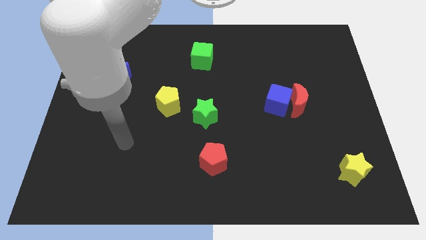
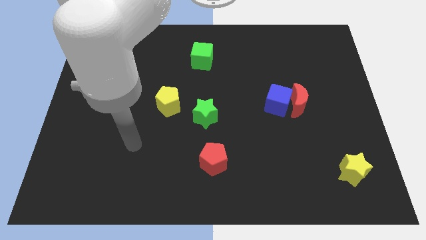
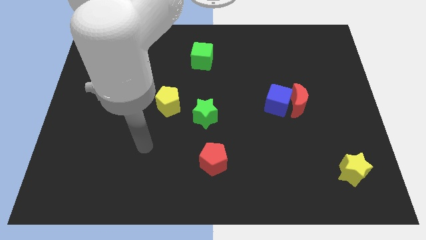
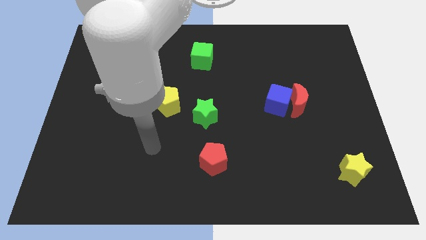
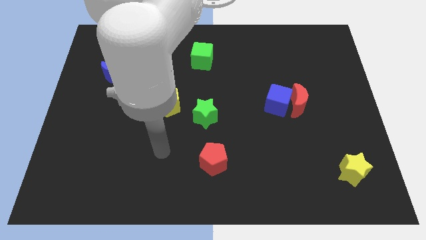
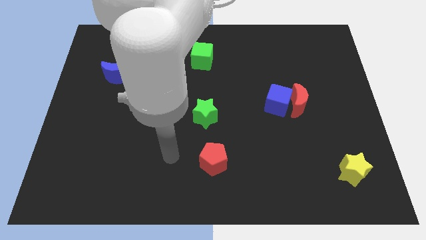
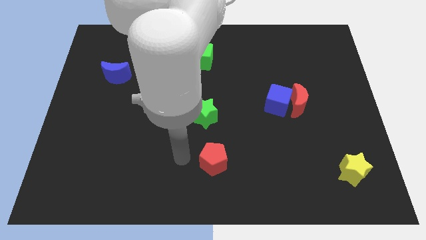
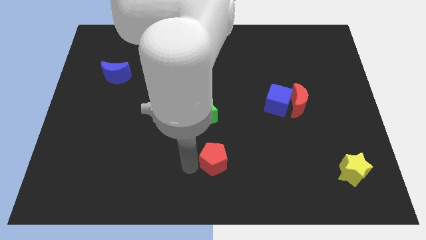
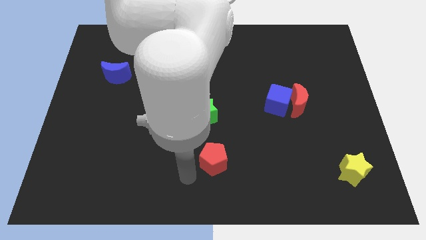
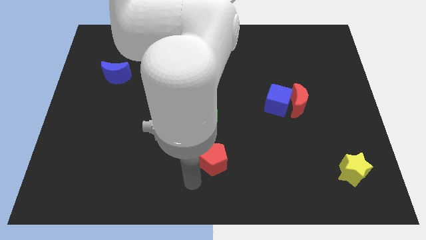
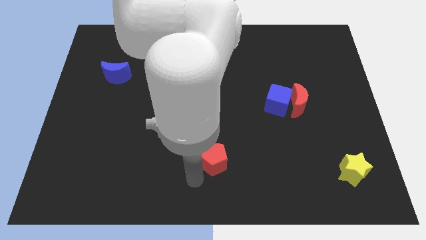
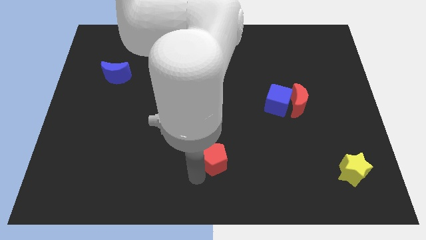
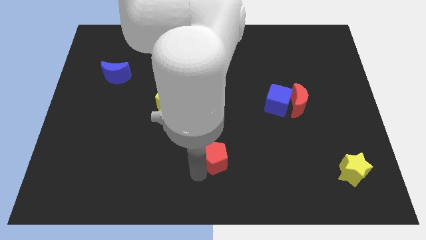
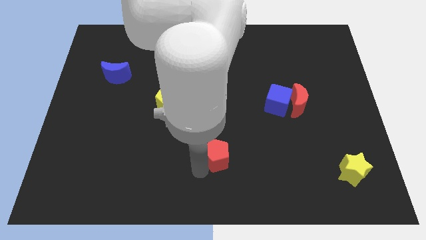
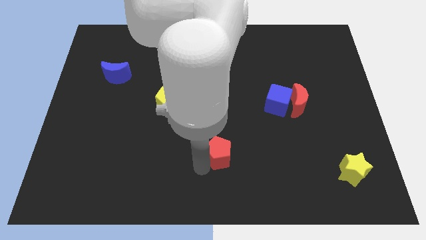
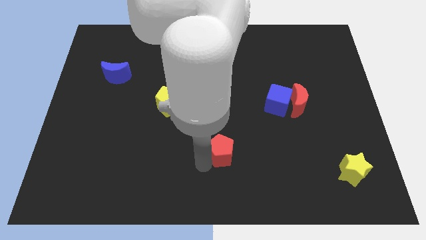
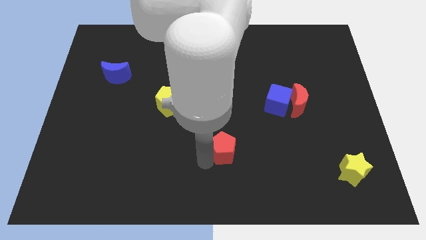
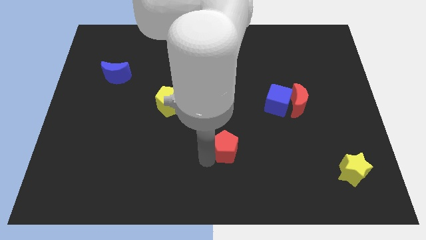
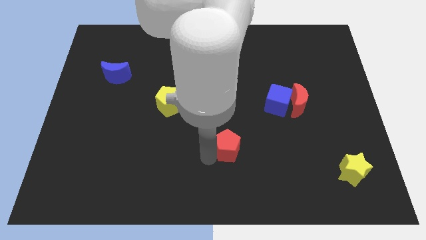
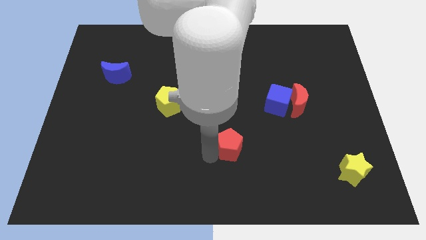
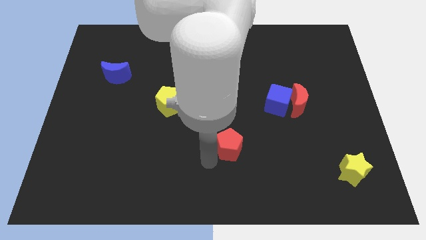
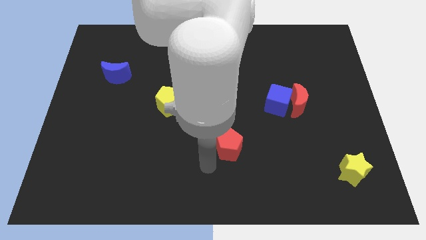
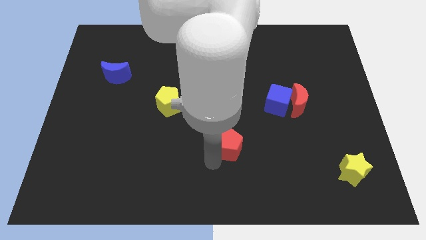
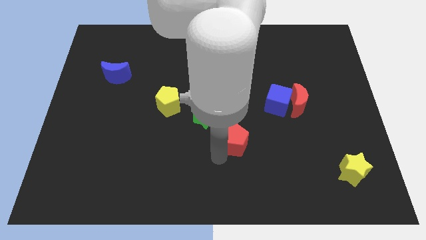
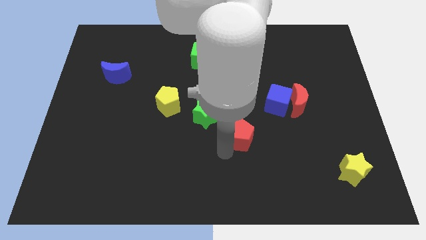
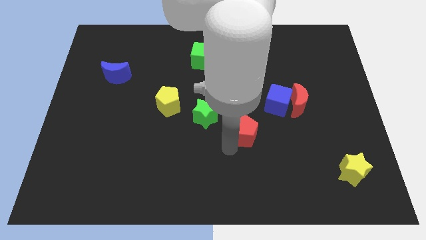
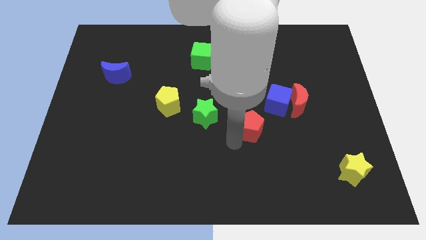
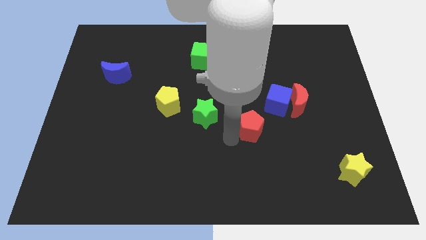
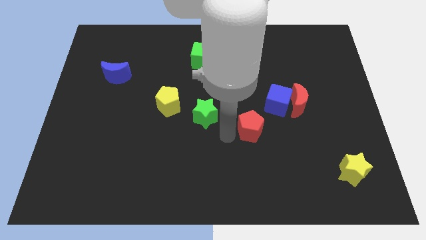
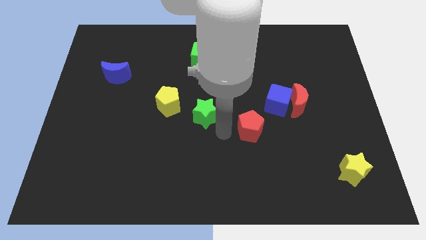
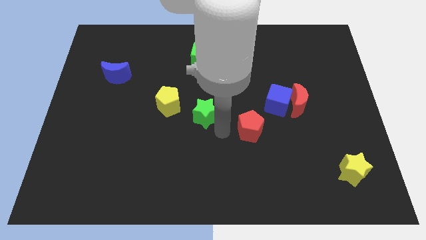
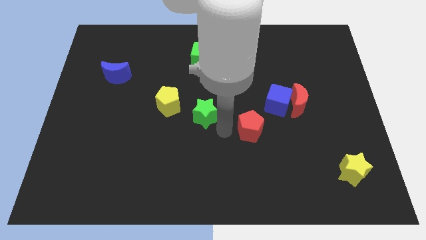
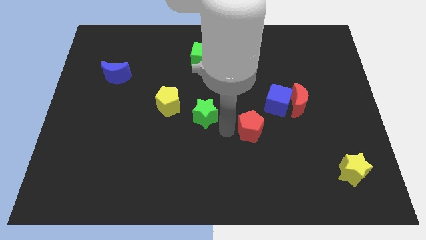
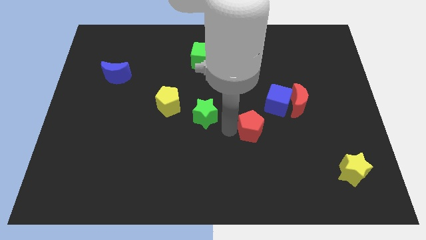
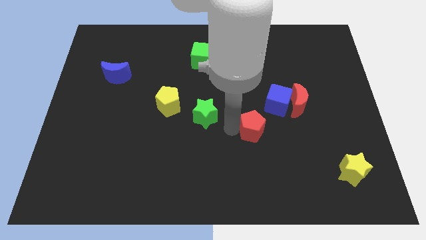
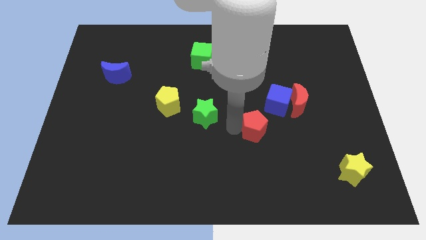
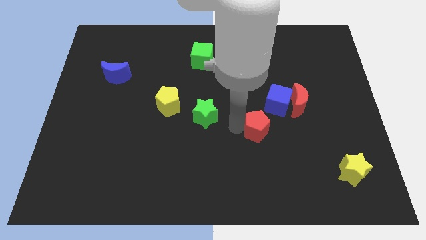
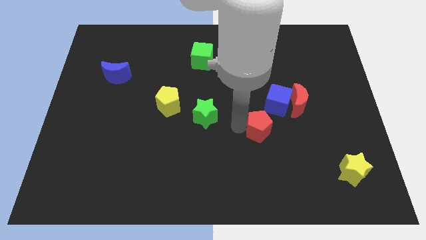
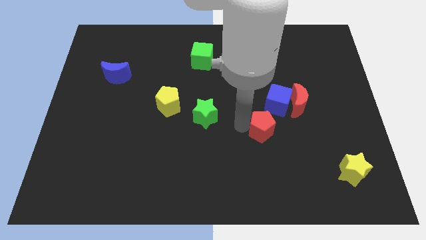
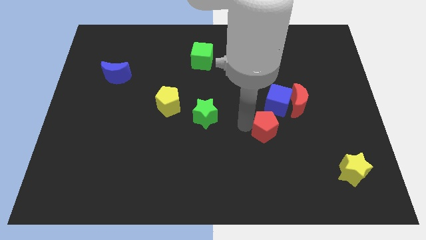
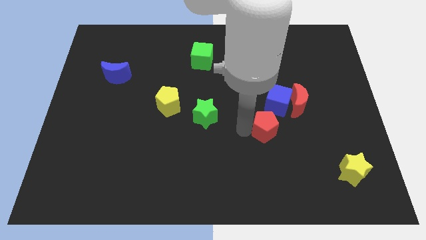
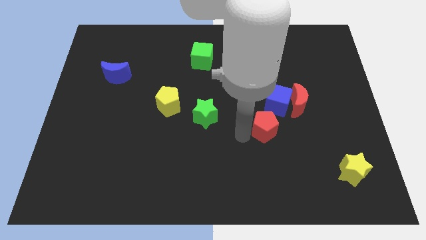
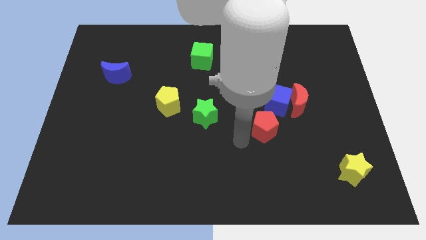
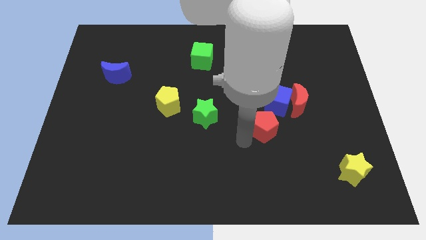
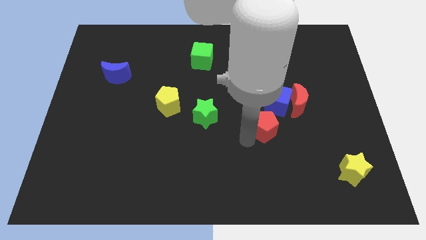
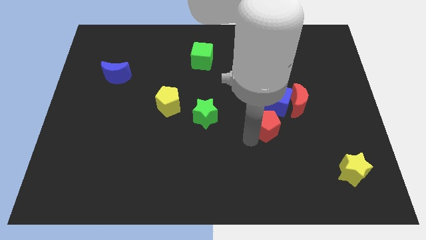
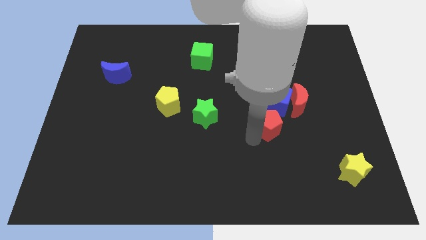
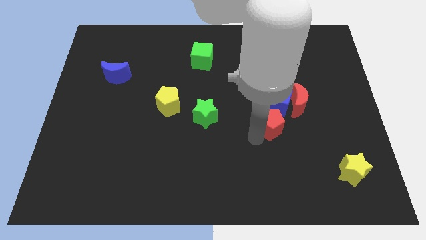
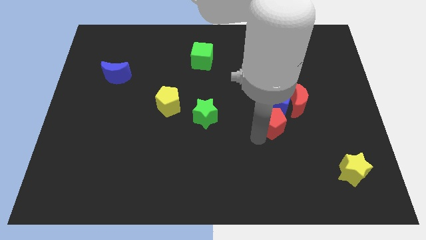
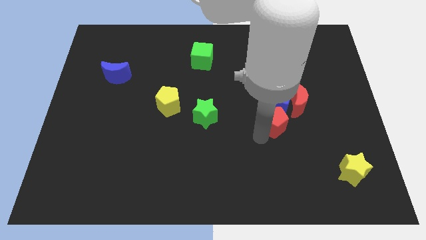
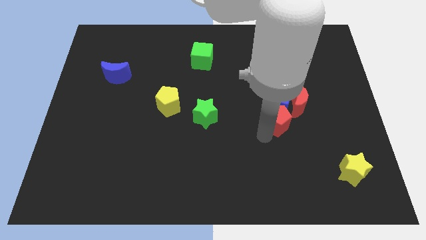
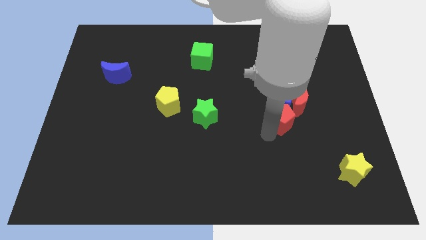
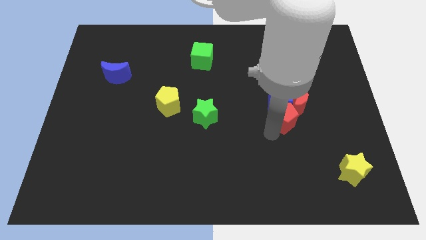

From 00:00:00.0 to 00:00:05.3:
put the red pentagon close to the red moon

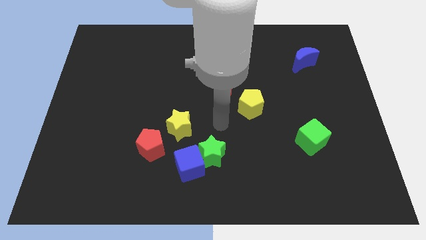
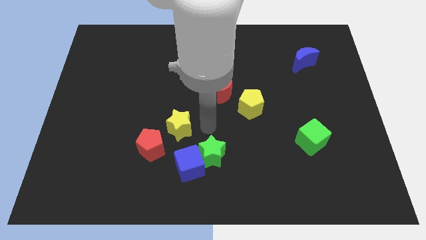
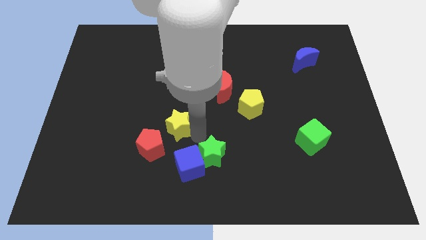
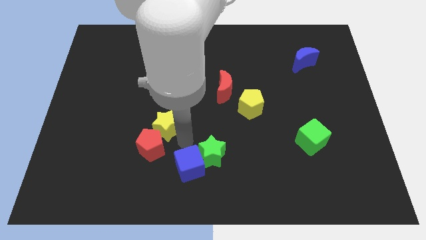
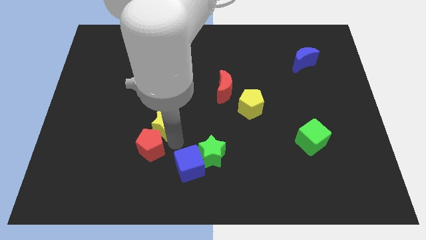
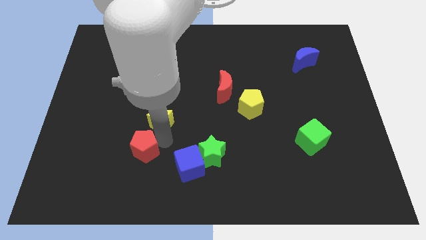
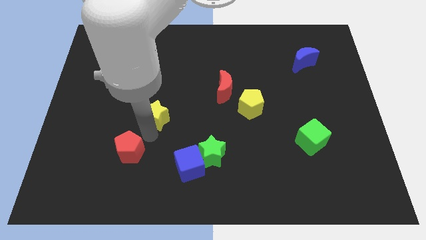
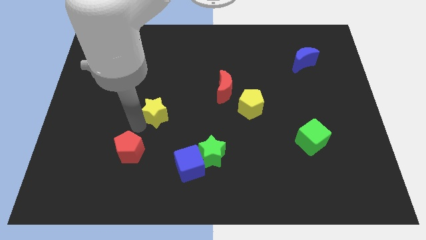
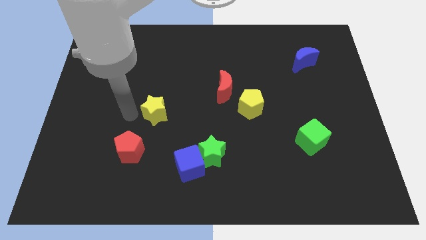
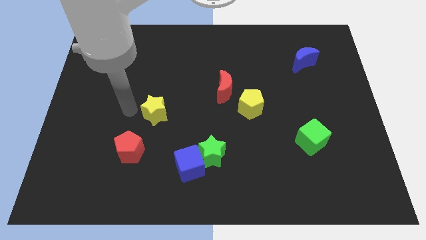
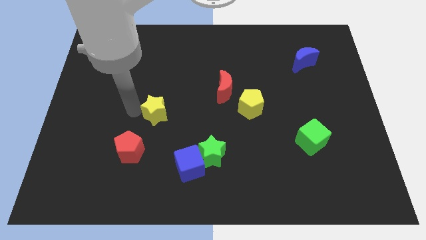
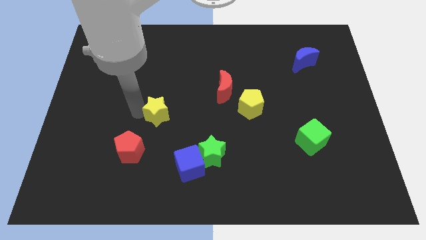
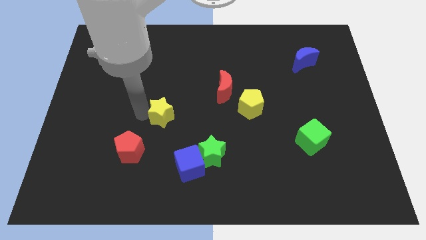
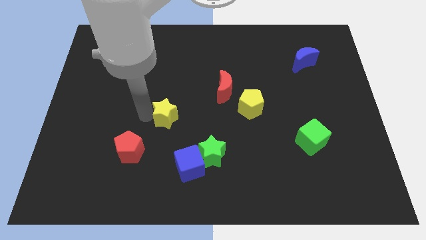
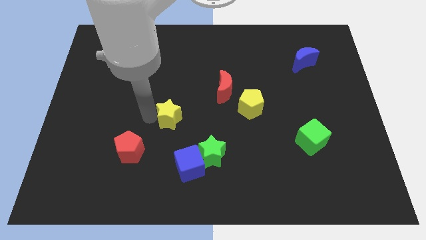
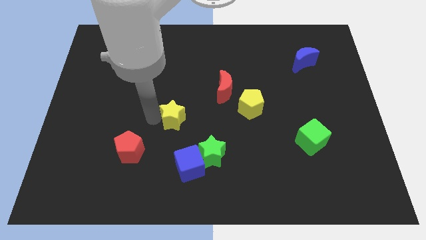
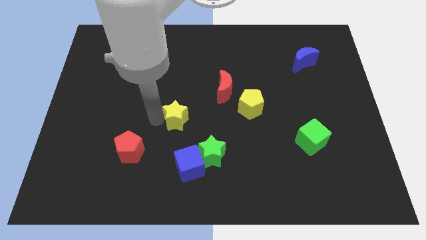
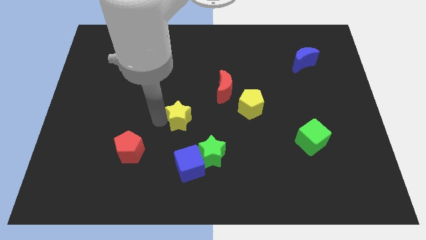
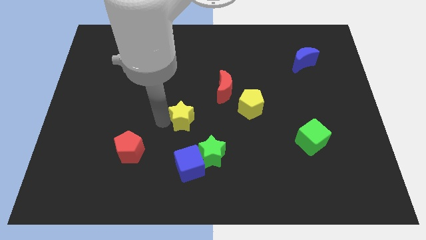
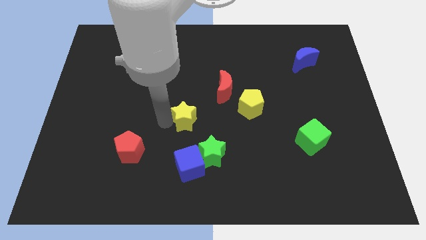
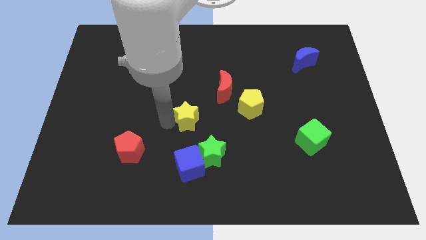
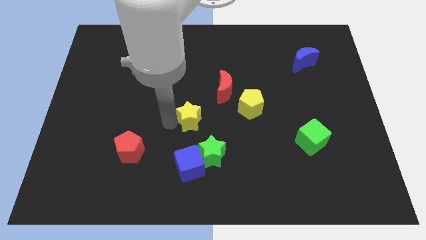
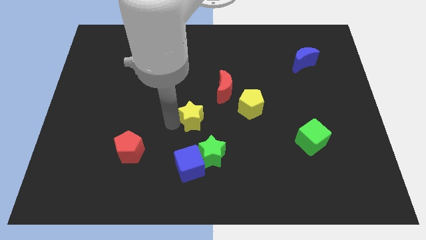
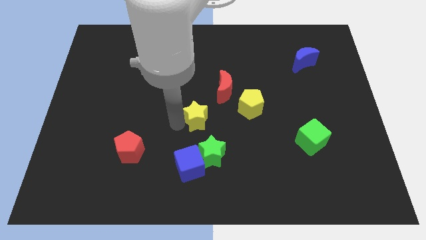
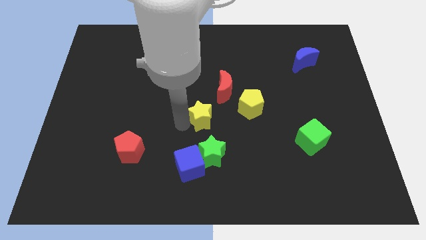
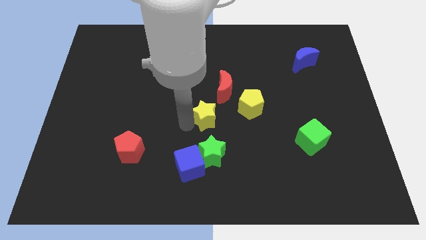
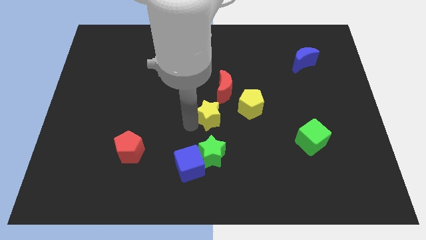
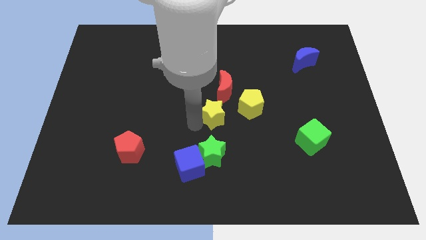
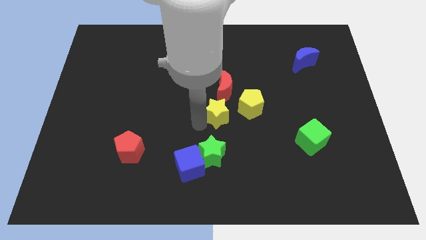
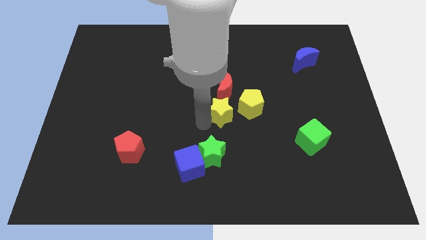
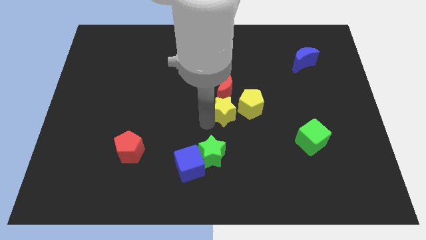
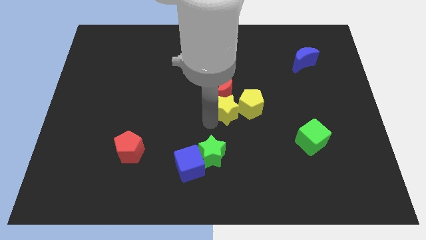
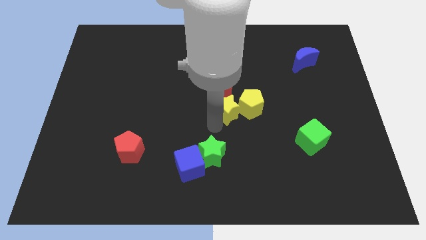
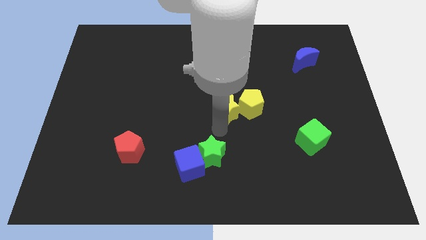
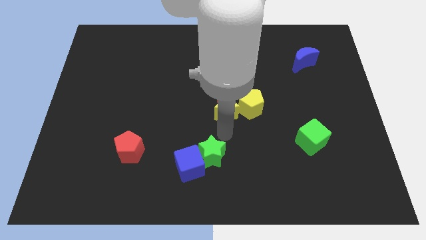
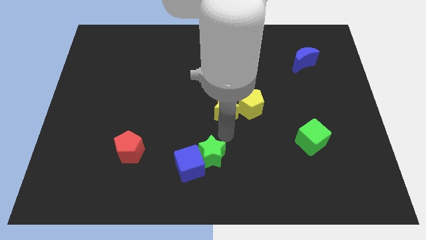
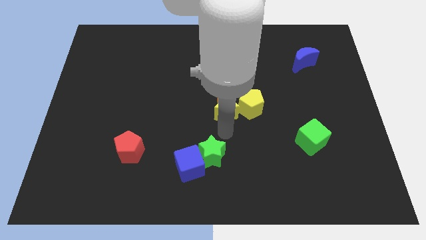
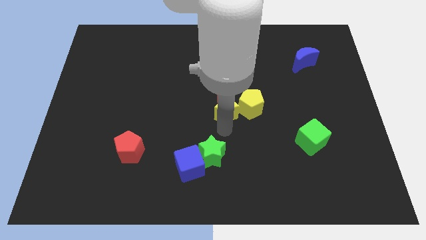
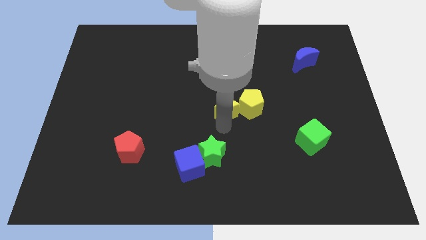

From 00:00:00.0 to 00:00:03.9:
slide the yellow star next to the red moon
